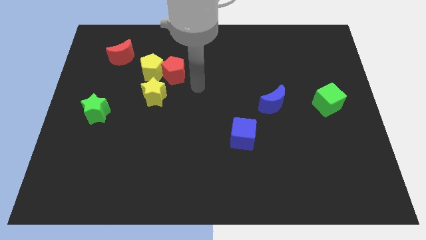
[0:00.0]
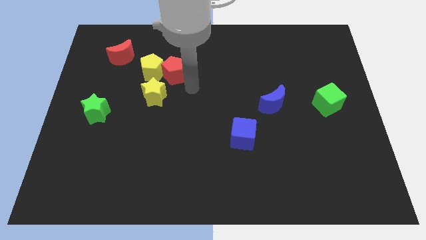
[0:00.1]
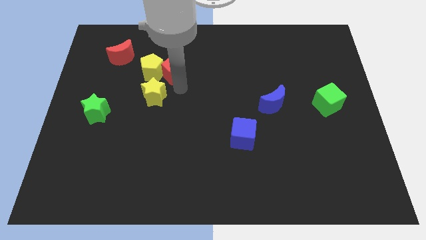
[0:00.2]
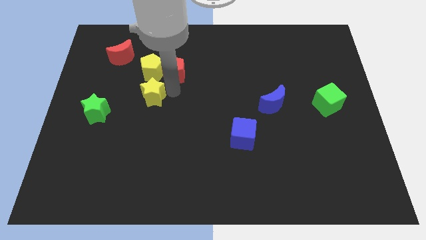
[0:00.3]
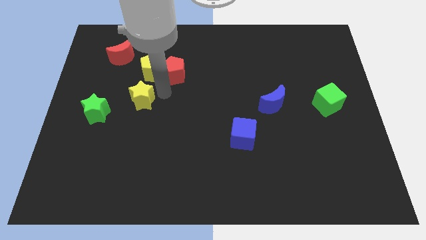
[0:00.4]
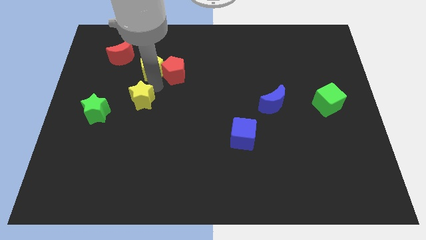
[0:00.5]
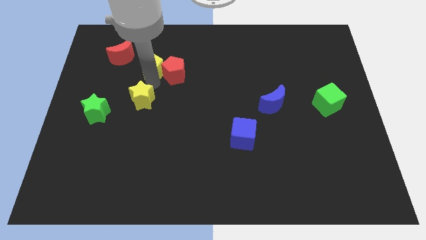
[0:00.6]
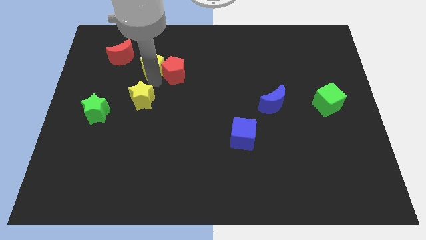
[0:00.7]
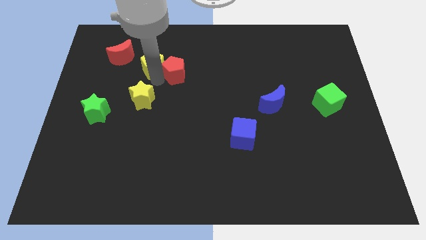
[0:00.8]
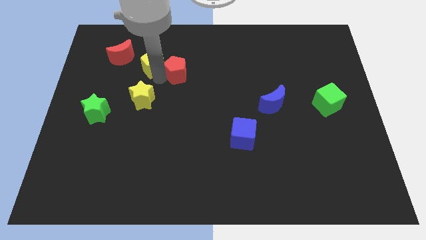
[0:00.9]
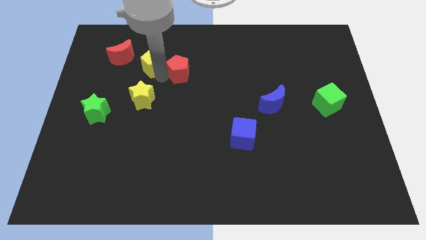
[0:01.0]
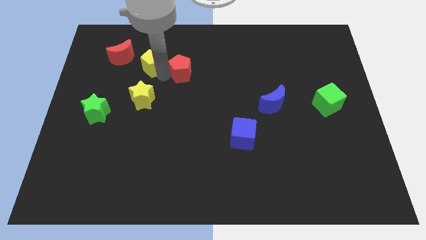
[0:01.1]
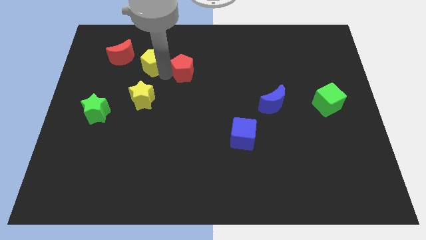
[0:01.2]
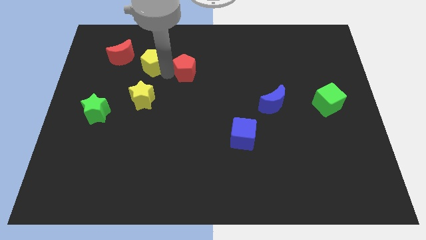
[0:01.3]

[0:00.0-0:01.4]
pull the red pentagon apart from the yellow pentagon and yellow star

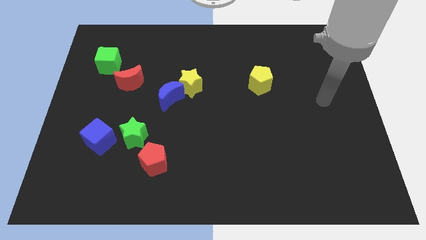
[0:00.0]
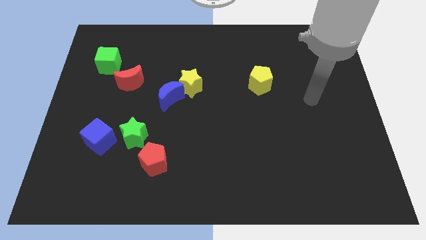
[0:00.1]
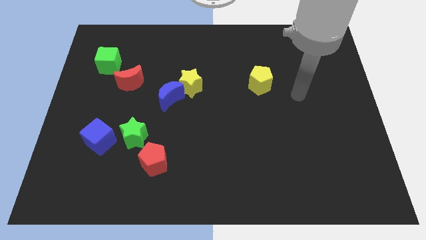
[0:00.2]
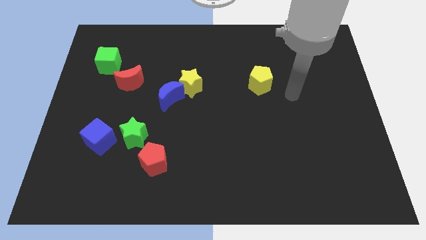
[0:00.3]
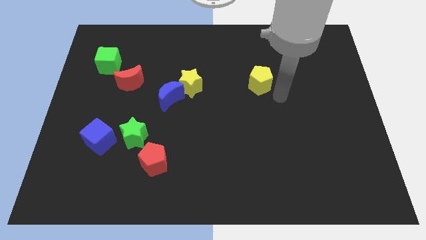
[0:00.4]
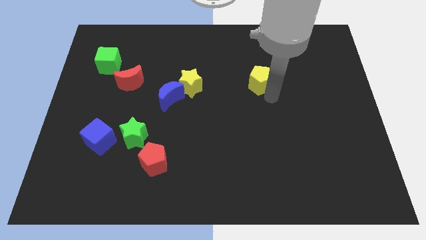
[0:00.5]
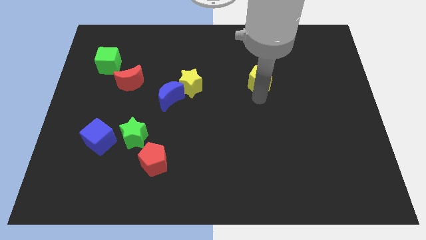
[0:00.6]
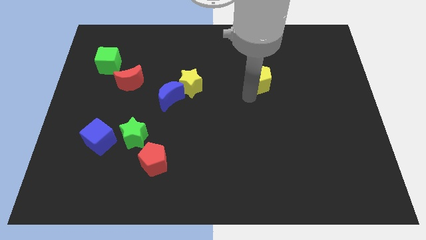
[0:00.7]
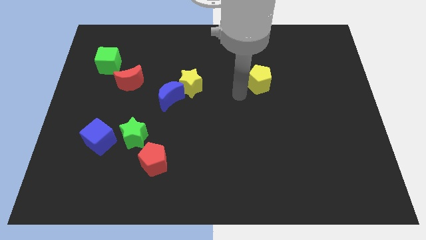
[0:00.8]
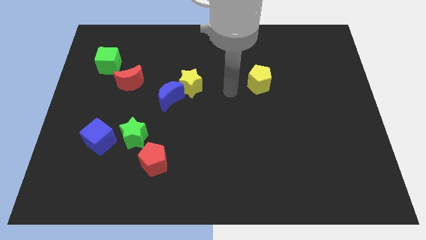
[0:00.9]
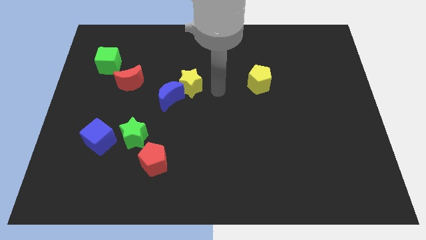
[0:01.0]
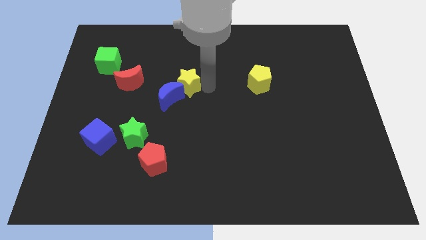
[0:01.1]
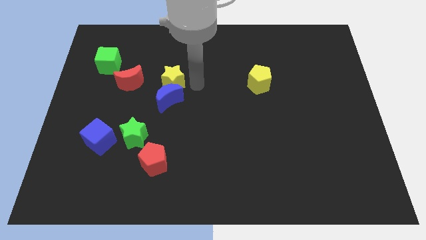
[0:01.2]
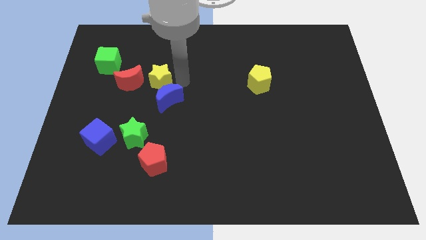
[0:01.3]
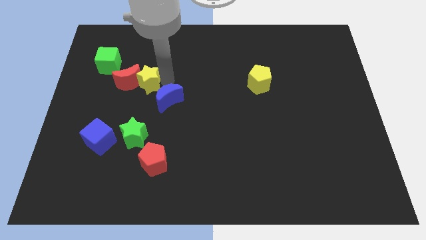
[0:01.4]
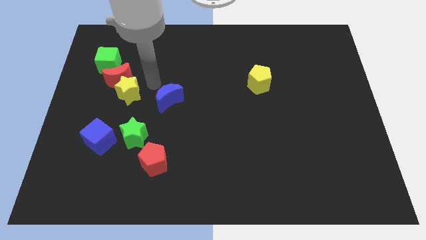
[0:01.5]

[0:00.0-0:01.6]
move the blue moon away from the yellow star

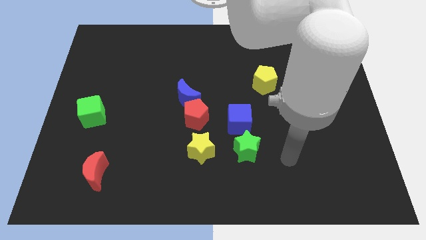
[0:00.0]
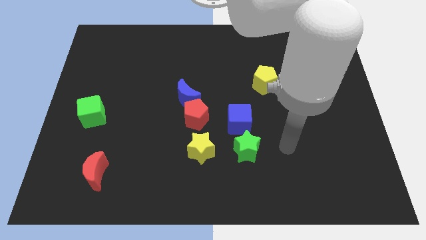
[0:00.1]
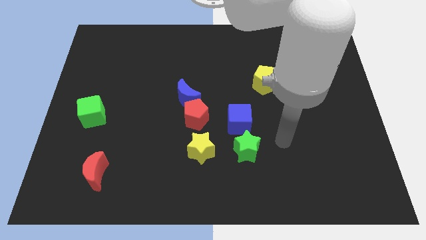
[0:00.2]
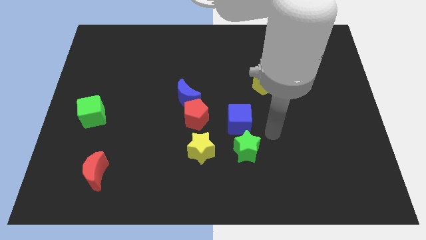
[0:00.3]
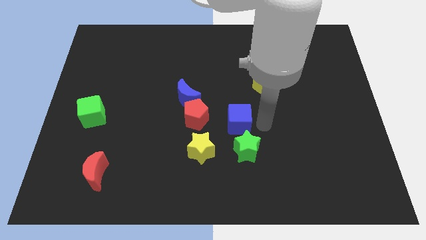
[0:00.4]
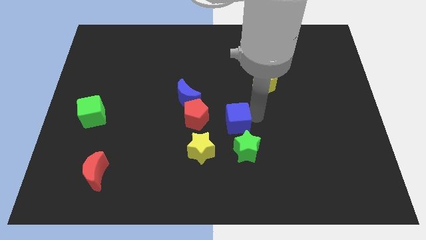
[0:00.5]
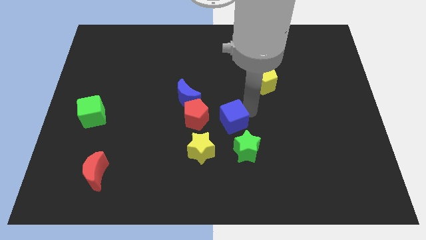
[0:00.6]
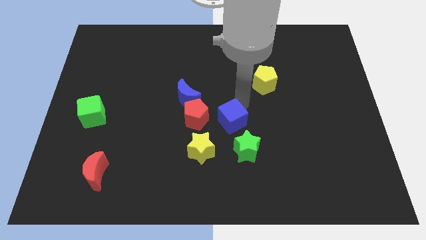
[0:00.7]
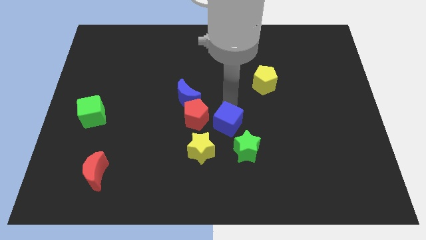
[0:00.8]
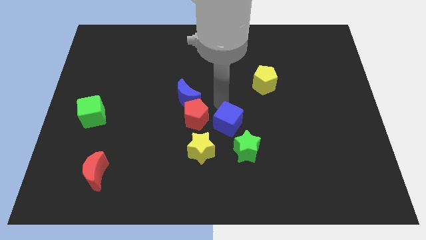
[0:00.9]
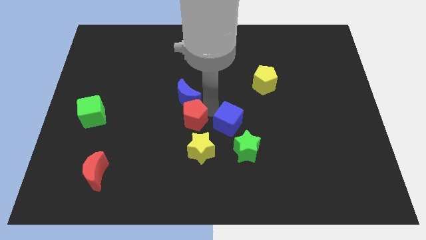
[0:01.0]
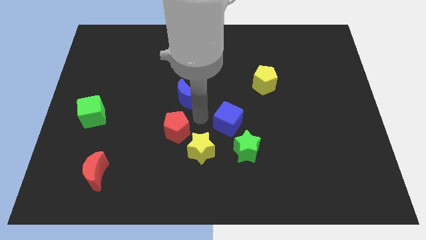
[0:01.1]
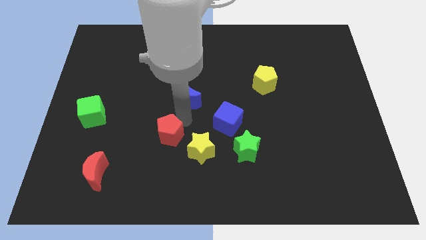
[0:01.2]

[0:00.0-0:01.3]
pull the blue moon apart from the red pentagon

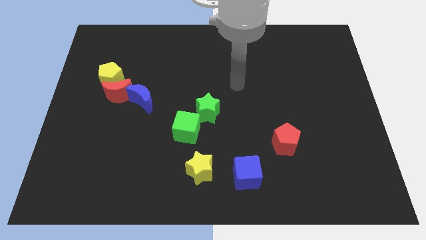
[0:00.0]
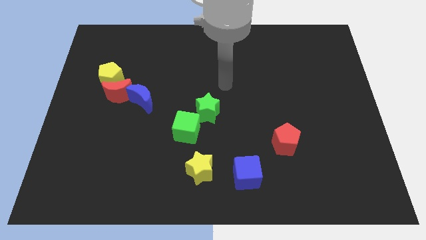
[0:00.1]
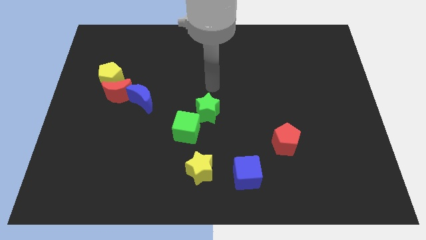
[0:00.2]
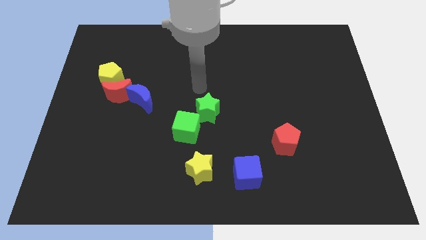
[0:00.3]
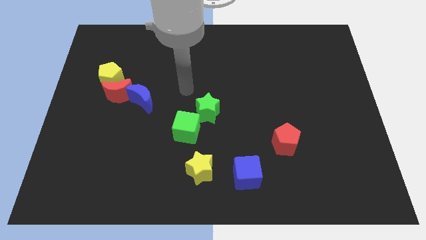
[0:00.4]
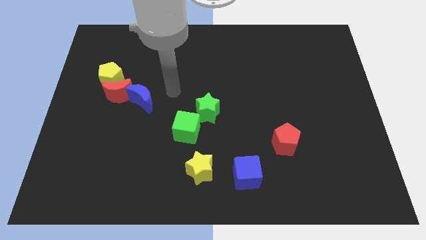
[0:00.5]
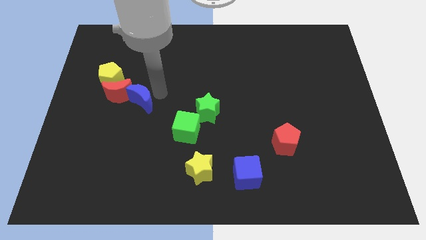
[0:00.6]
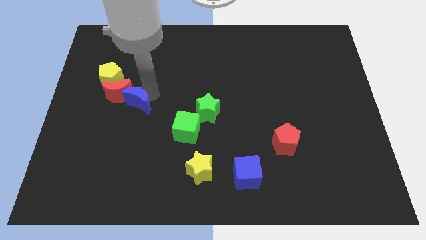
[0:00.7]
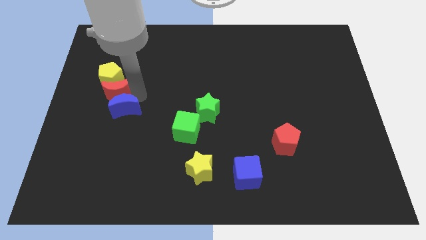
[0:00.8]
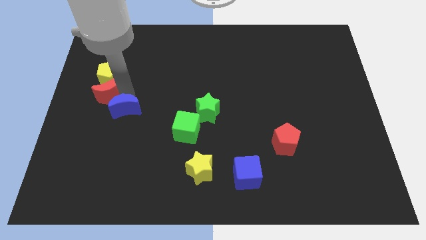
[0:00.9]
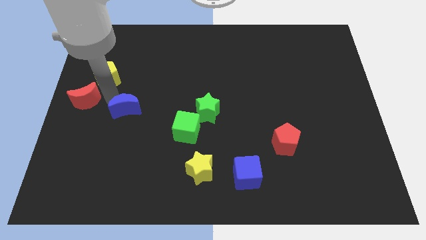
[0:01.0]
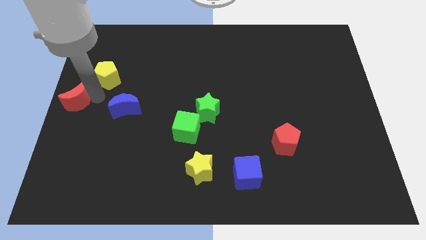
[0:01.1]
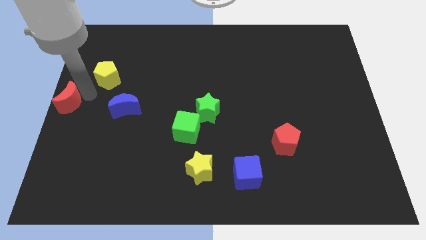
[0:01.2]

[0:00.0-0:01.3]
move the yellow pentagon away from the red moon

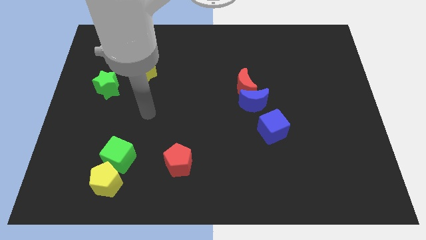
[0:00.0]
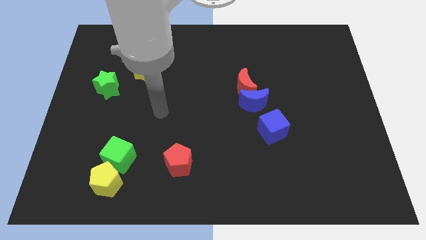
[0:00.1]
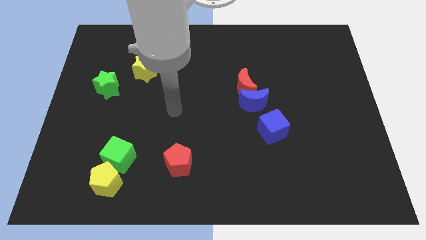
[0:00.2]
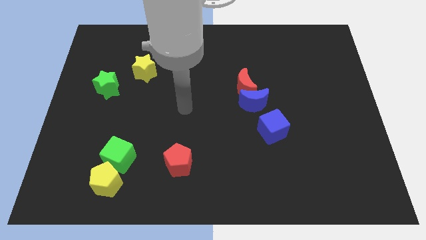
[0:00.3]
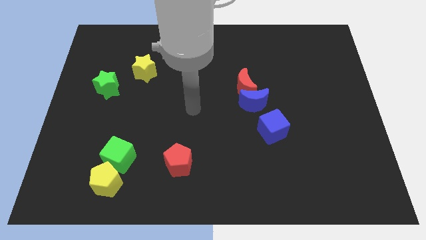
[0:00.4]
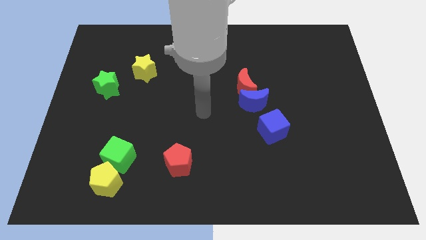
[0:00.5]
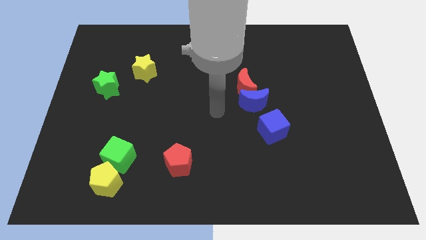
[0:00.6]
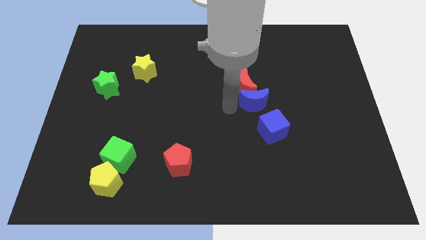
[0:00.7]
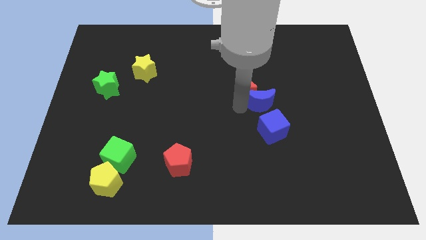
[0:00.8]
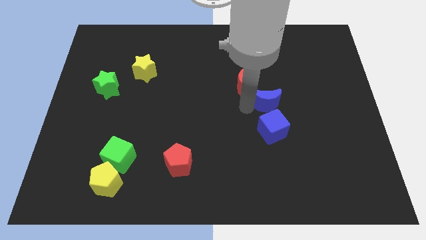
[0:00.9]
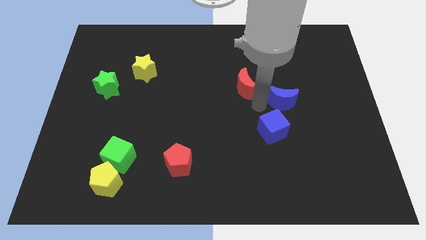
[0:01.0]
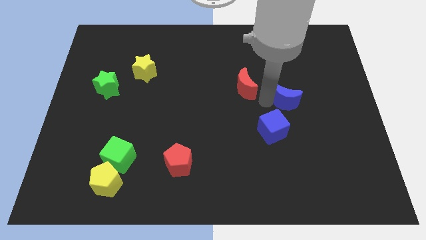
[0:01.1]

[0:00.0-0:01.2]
move the red moon away from the blue moon

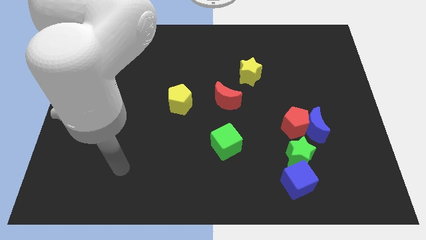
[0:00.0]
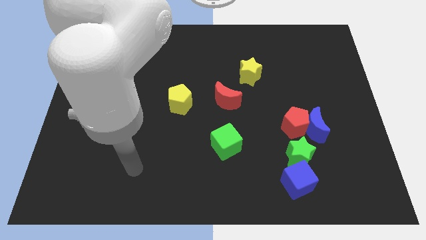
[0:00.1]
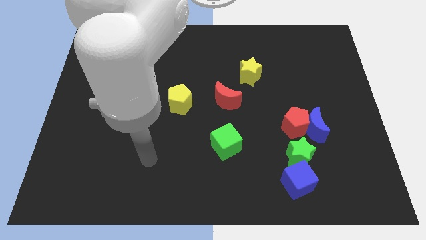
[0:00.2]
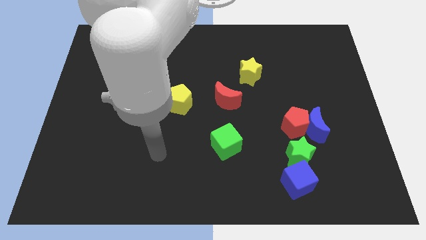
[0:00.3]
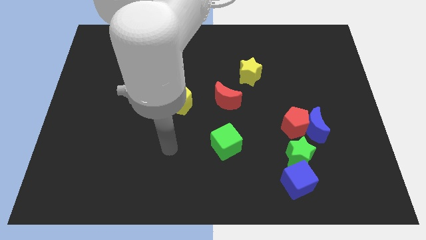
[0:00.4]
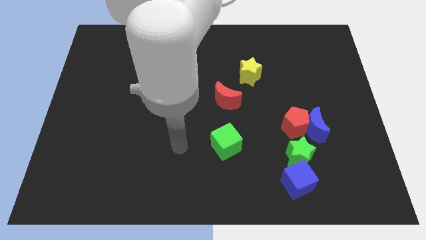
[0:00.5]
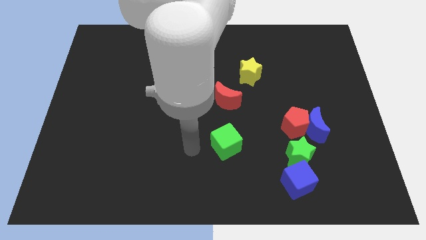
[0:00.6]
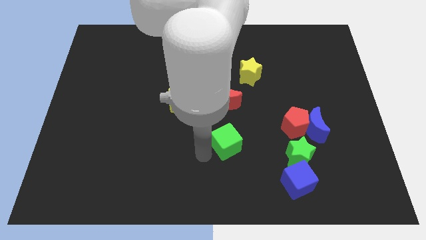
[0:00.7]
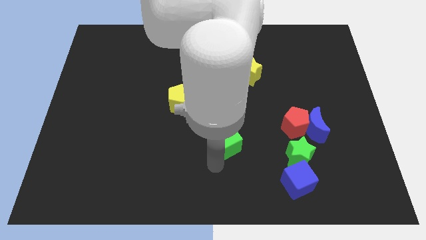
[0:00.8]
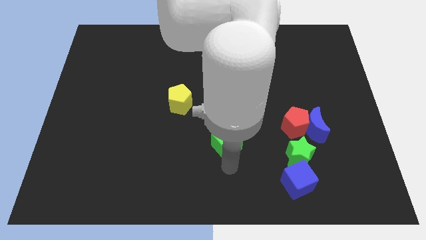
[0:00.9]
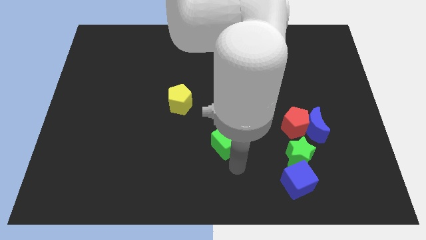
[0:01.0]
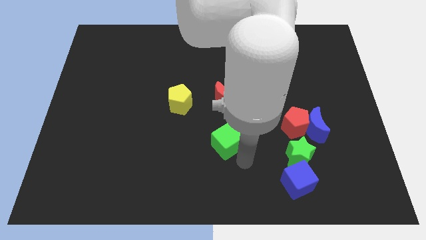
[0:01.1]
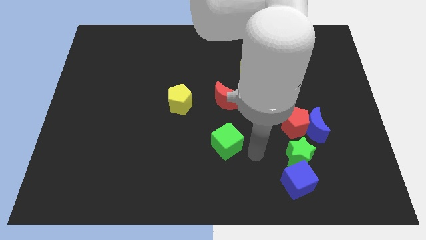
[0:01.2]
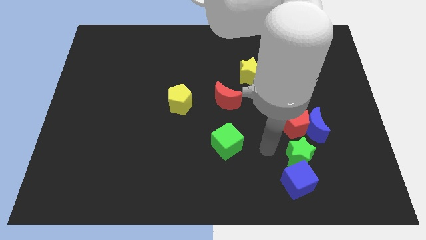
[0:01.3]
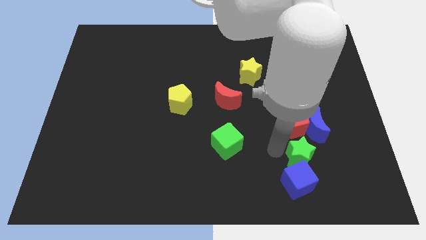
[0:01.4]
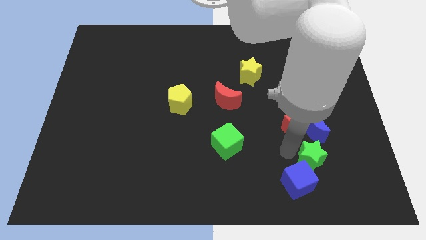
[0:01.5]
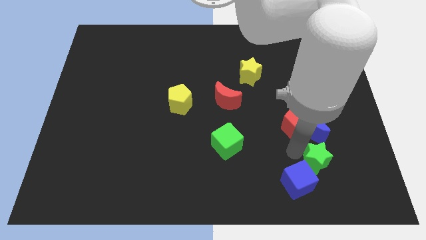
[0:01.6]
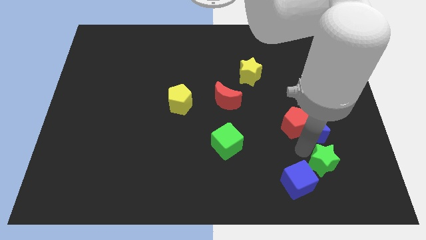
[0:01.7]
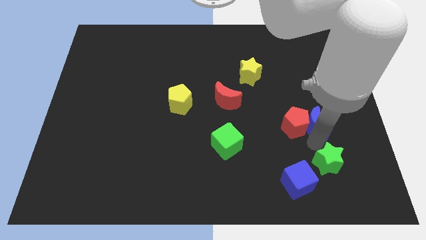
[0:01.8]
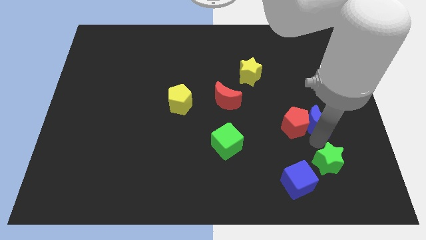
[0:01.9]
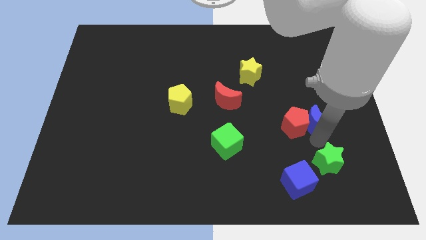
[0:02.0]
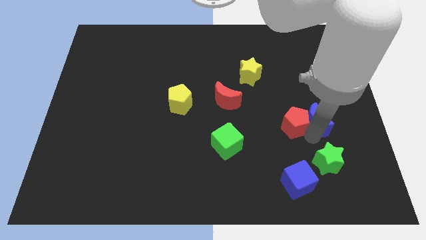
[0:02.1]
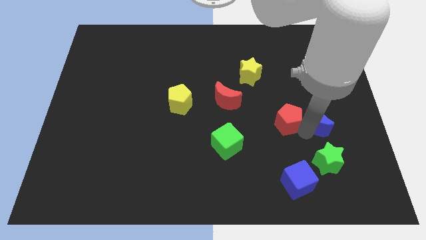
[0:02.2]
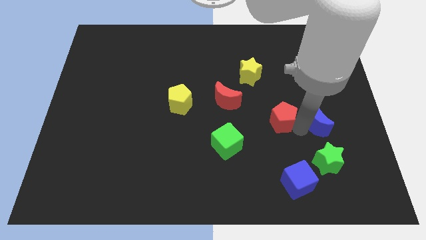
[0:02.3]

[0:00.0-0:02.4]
move the red pentagon away from the blue moon and green star
